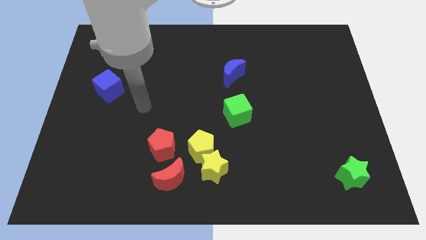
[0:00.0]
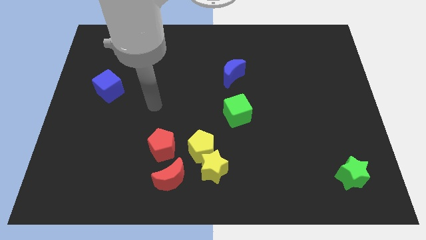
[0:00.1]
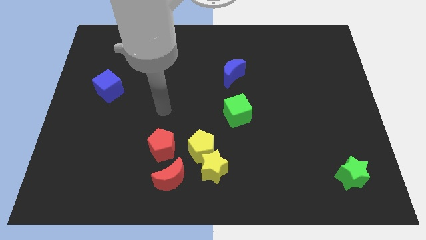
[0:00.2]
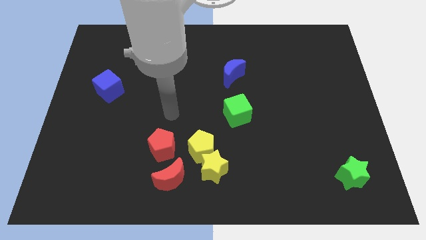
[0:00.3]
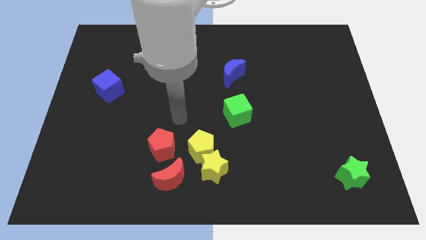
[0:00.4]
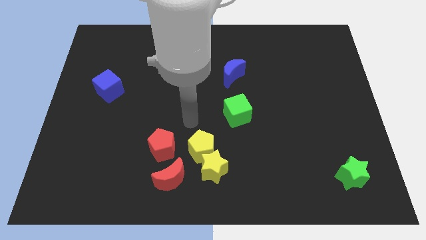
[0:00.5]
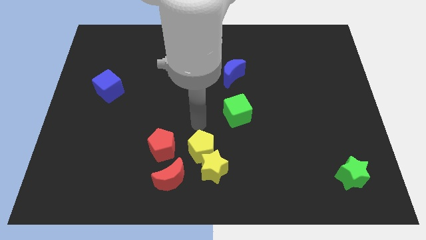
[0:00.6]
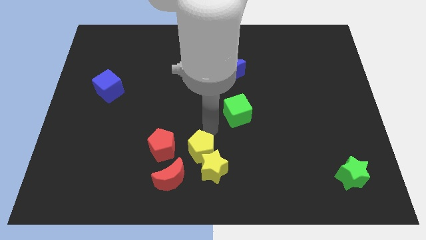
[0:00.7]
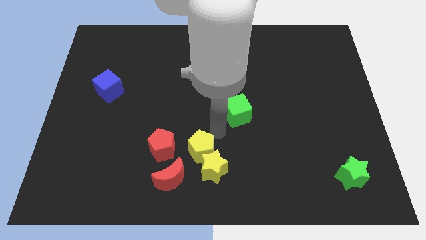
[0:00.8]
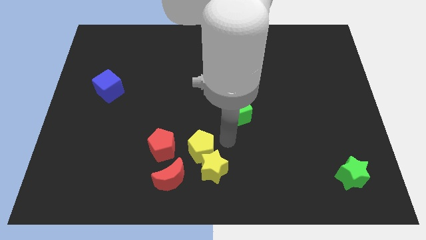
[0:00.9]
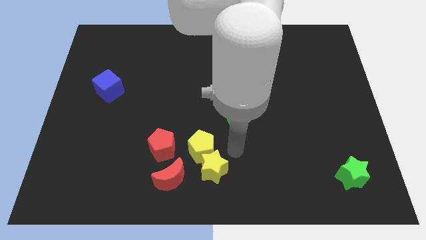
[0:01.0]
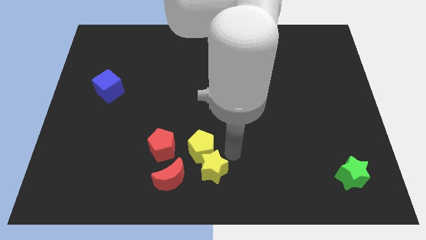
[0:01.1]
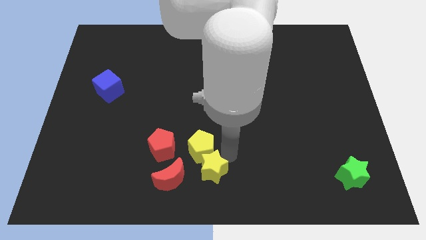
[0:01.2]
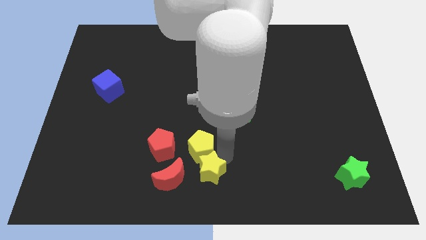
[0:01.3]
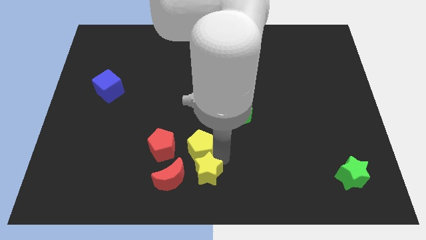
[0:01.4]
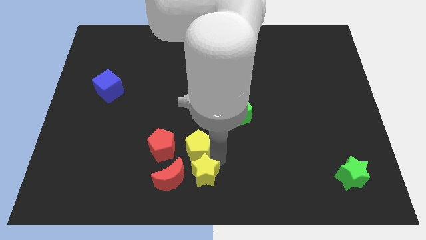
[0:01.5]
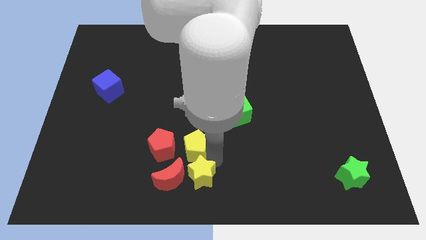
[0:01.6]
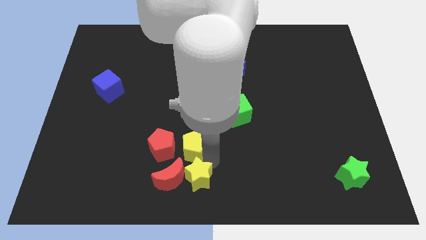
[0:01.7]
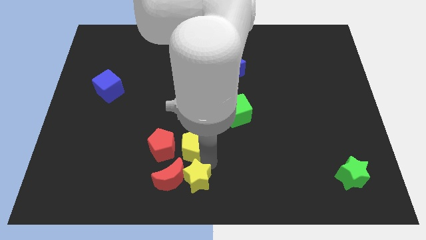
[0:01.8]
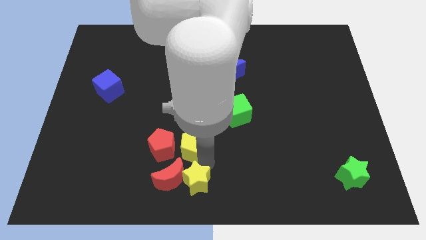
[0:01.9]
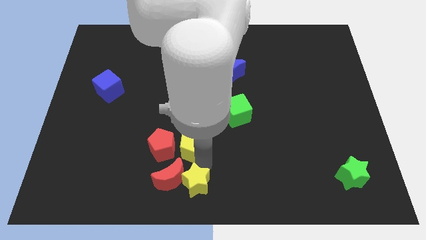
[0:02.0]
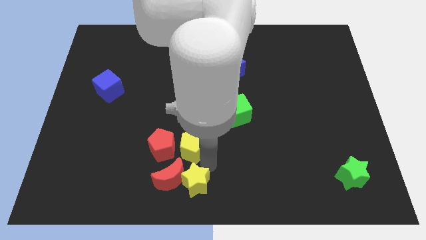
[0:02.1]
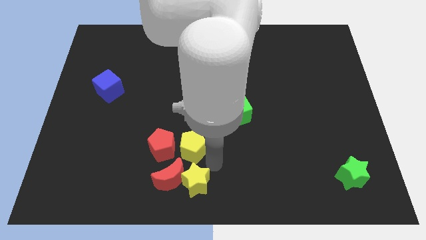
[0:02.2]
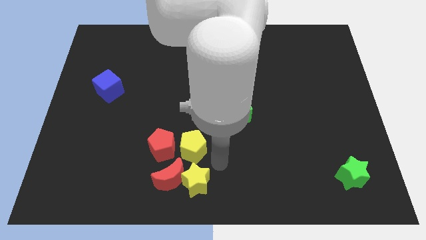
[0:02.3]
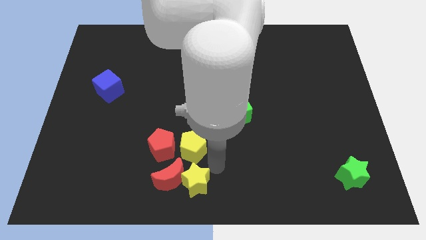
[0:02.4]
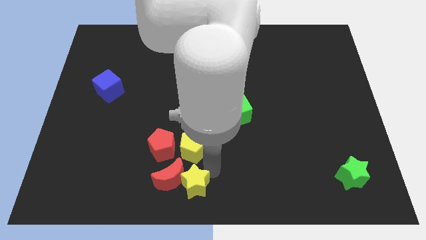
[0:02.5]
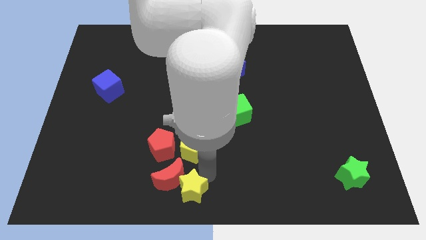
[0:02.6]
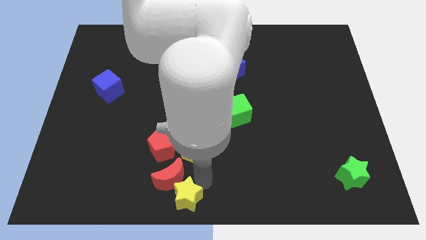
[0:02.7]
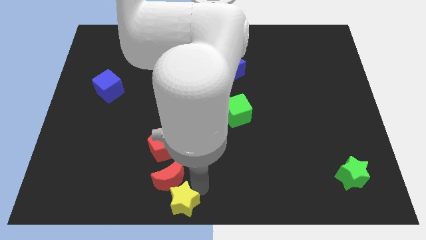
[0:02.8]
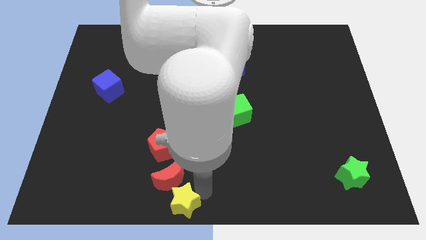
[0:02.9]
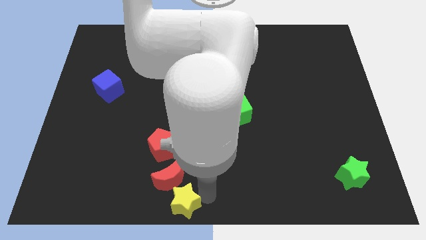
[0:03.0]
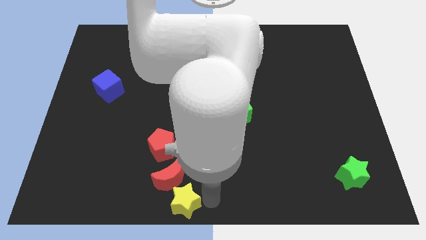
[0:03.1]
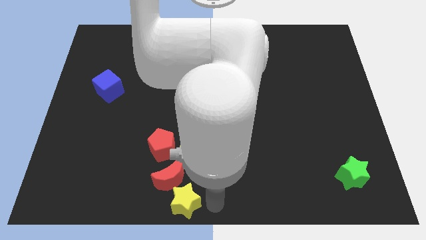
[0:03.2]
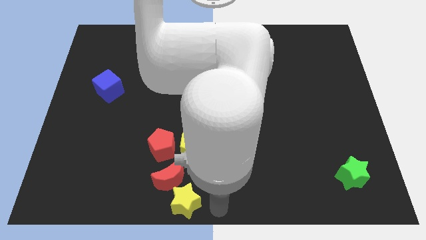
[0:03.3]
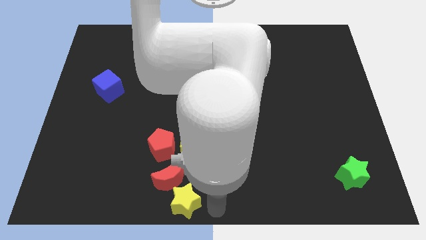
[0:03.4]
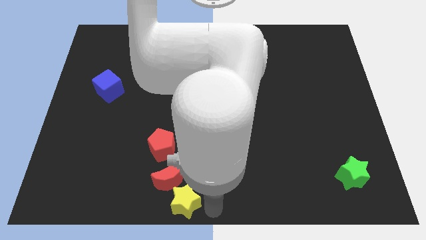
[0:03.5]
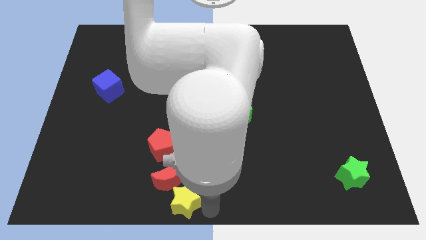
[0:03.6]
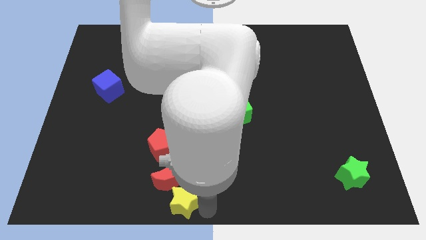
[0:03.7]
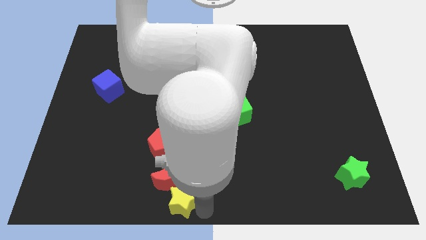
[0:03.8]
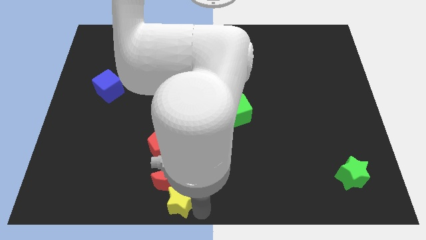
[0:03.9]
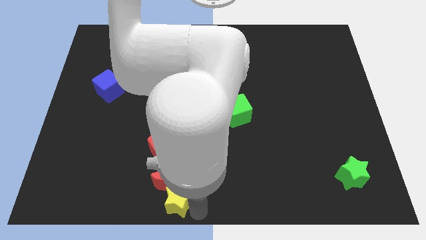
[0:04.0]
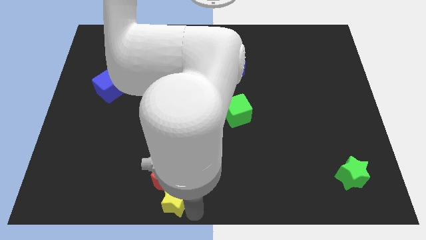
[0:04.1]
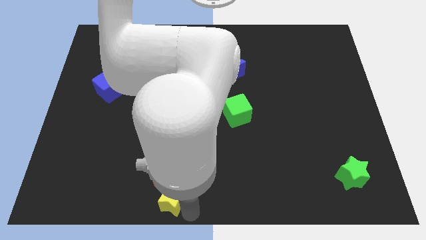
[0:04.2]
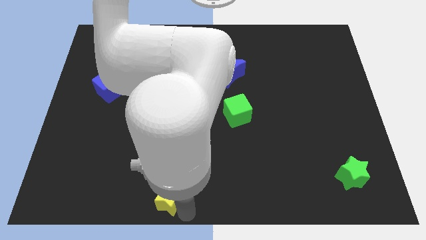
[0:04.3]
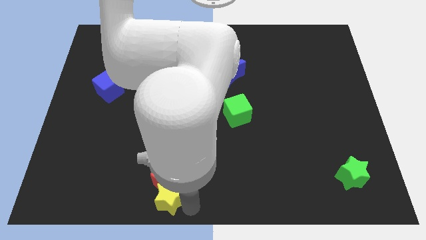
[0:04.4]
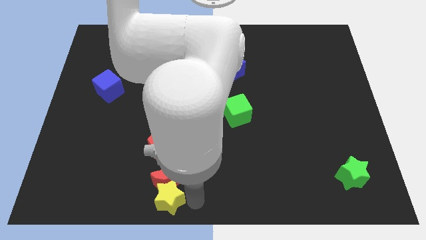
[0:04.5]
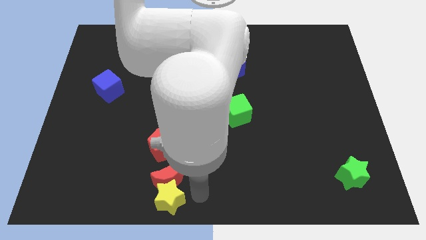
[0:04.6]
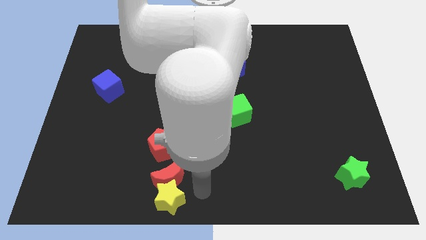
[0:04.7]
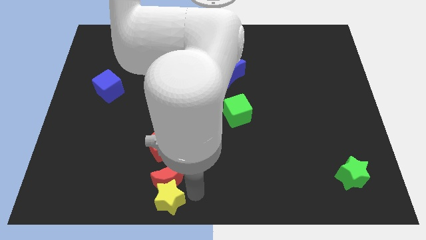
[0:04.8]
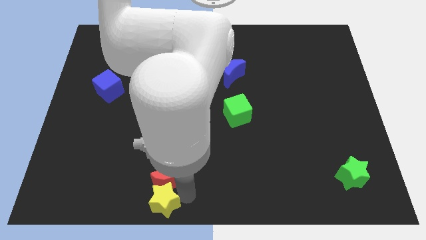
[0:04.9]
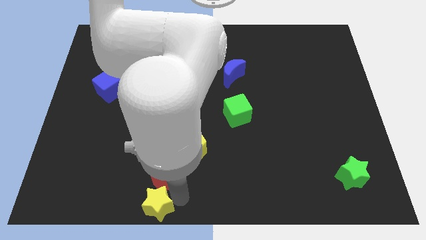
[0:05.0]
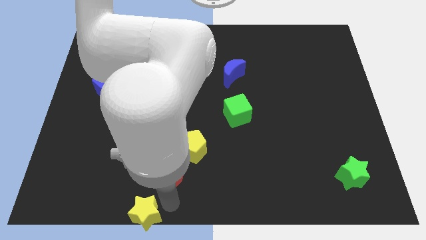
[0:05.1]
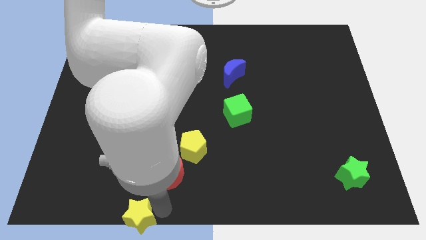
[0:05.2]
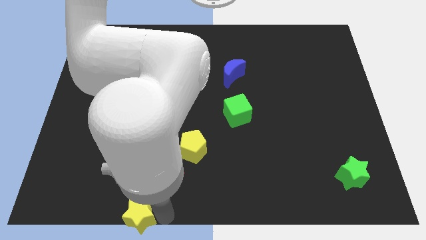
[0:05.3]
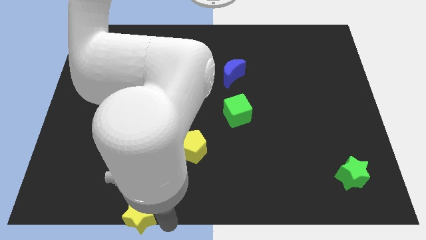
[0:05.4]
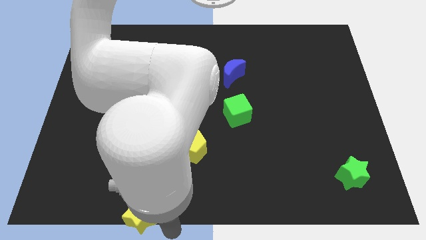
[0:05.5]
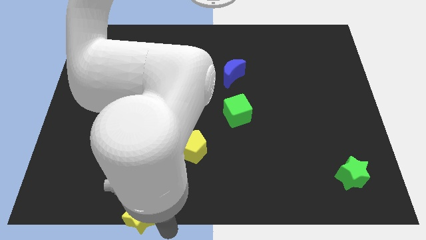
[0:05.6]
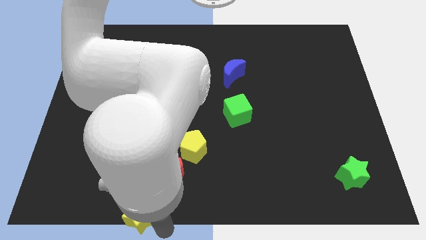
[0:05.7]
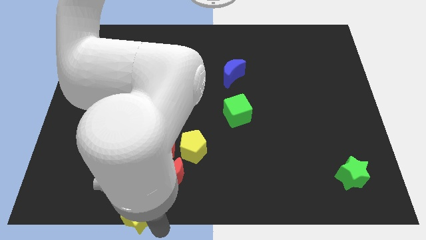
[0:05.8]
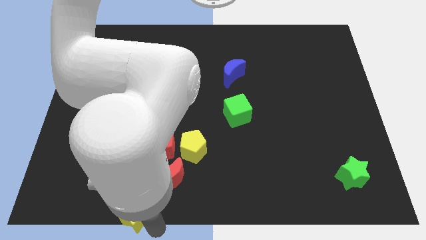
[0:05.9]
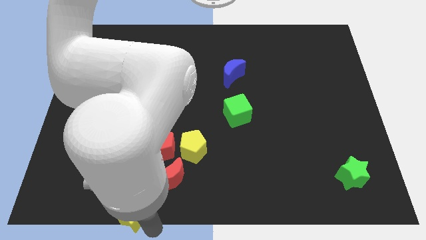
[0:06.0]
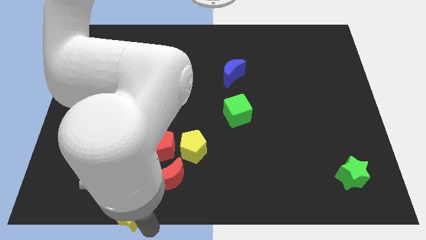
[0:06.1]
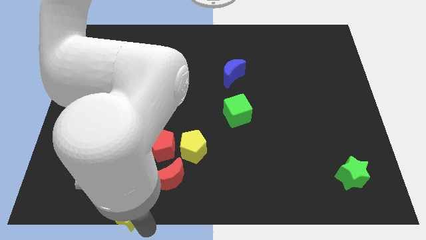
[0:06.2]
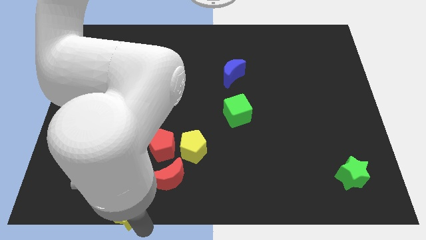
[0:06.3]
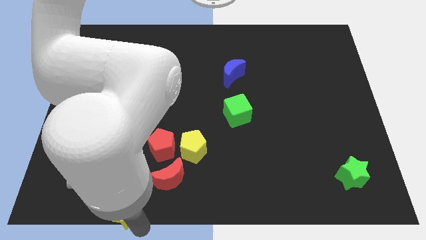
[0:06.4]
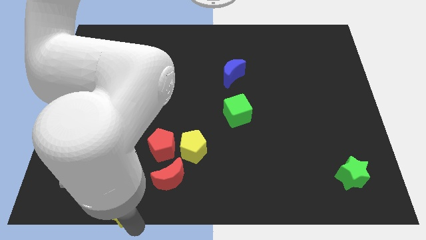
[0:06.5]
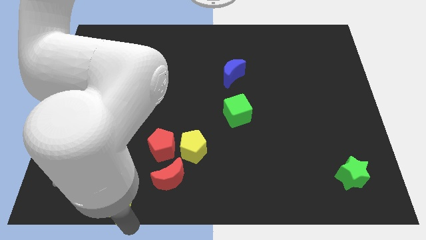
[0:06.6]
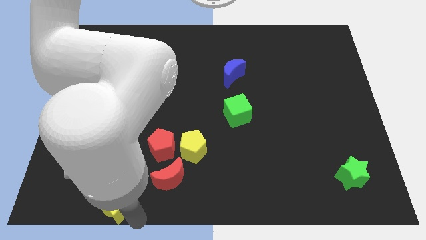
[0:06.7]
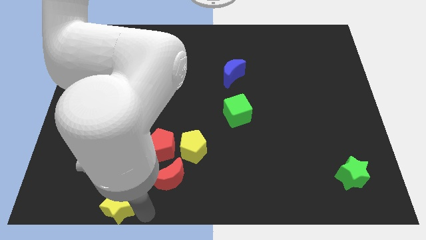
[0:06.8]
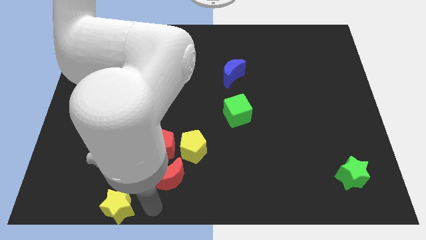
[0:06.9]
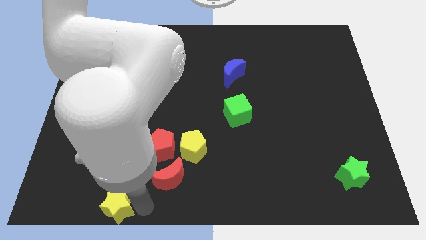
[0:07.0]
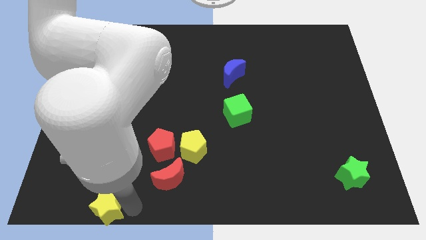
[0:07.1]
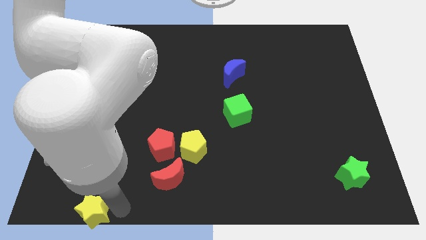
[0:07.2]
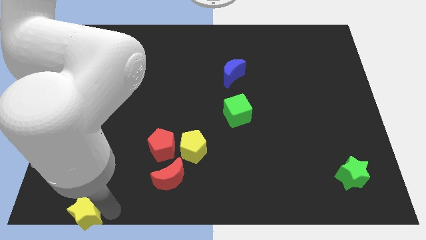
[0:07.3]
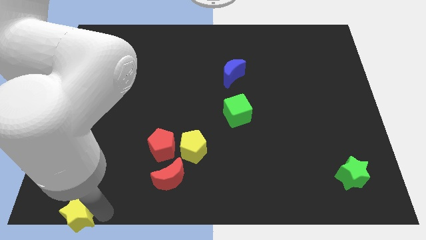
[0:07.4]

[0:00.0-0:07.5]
move the yellow star to the bottom left

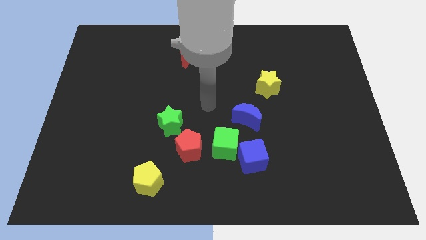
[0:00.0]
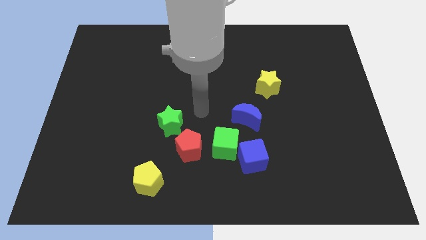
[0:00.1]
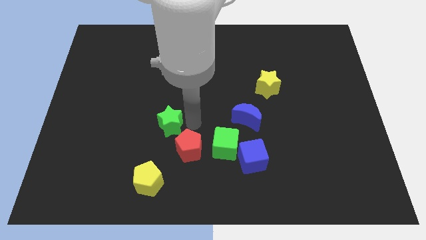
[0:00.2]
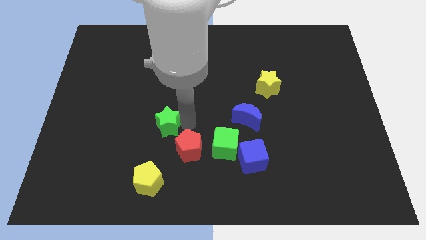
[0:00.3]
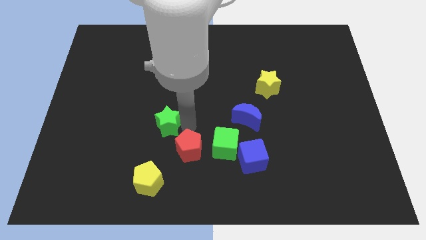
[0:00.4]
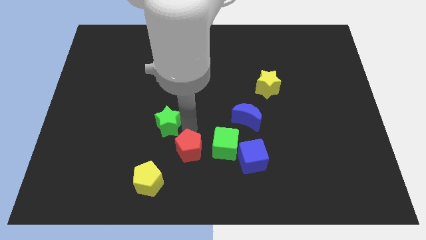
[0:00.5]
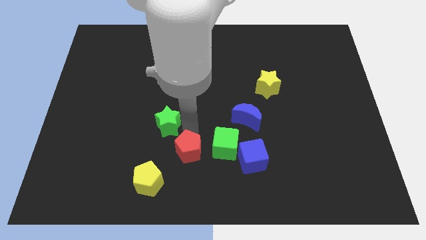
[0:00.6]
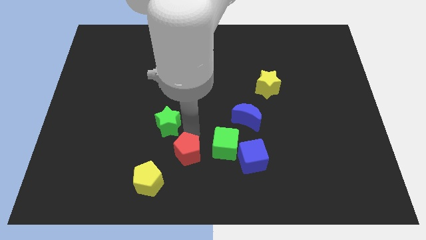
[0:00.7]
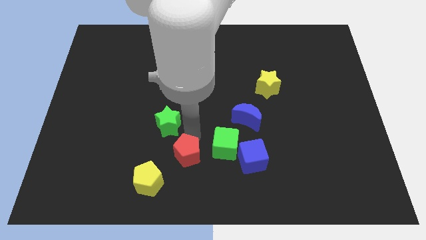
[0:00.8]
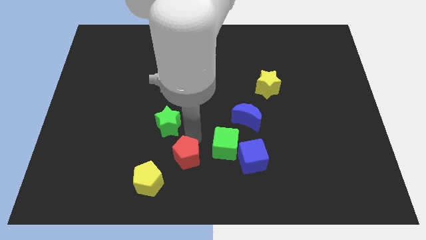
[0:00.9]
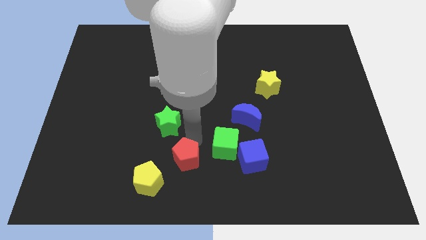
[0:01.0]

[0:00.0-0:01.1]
put the red pentagon to the bottom side
